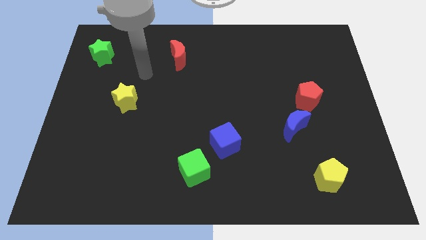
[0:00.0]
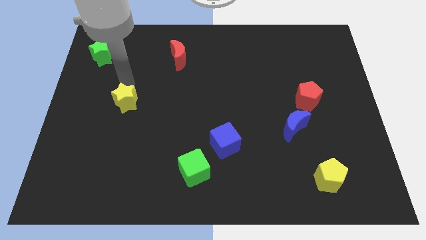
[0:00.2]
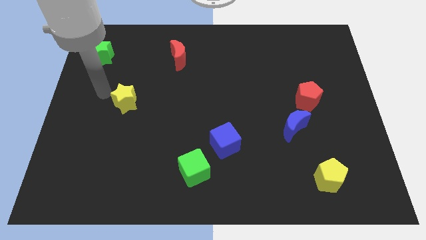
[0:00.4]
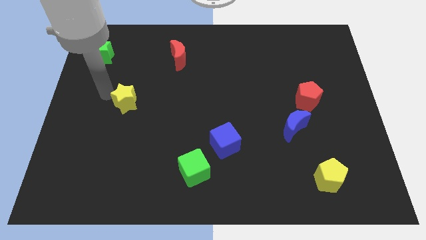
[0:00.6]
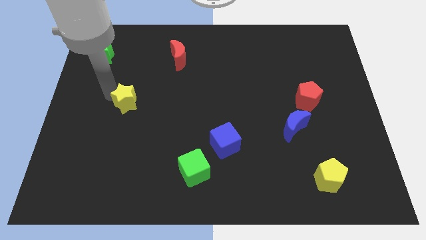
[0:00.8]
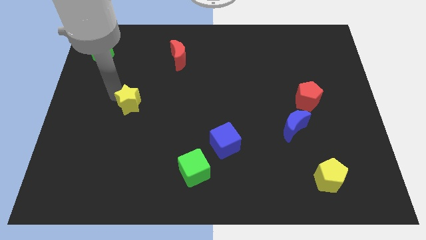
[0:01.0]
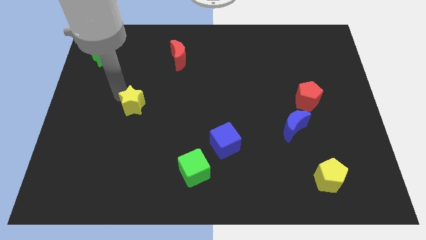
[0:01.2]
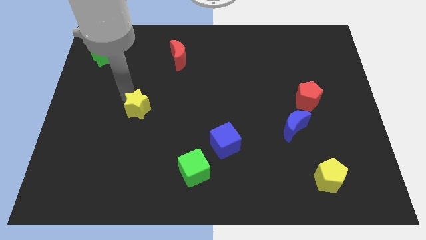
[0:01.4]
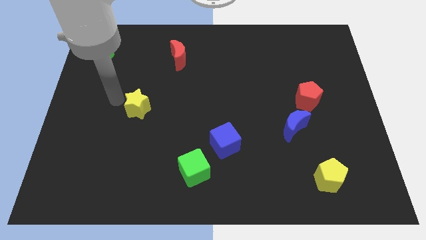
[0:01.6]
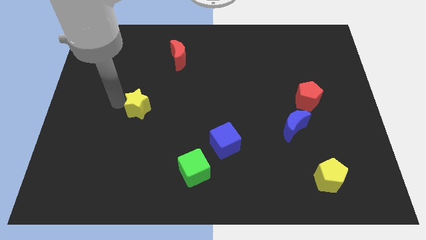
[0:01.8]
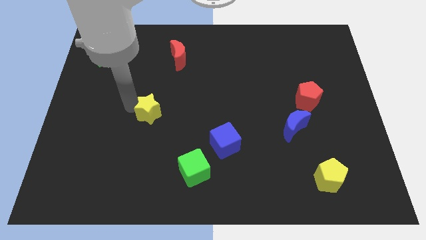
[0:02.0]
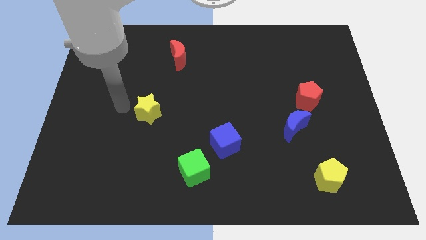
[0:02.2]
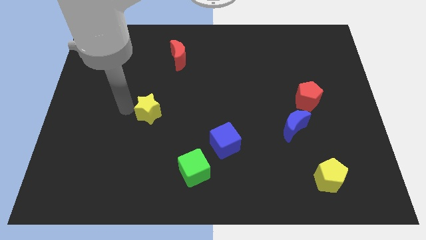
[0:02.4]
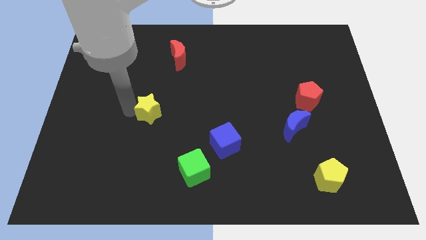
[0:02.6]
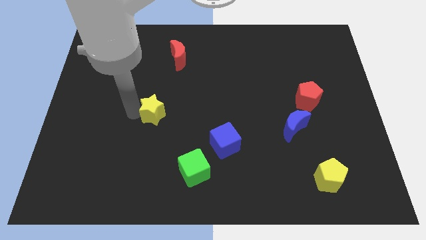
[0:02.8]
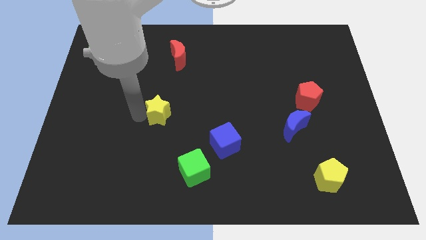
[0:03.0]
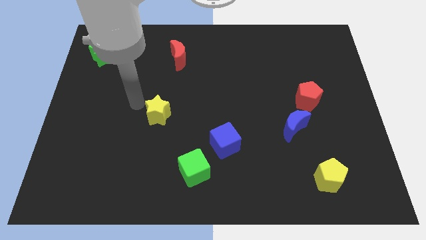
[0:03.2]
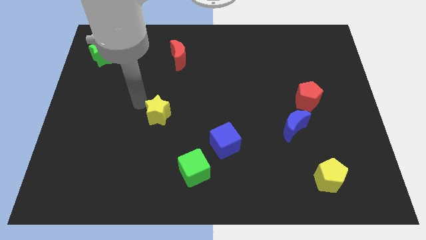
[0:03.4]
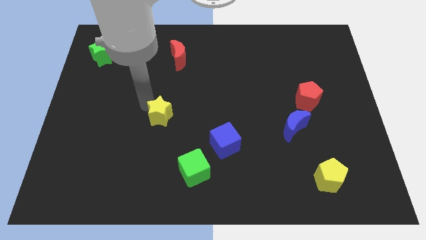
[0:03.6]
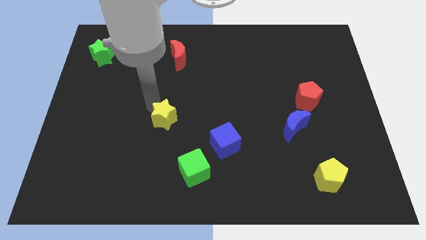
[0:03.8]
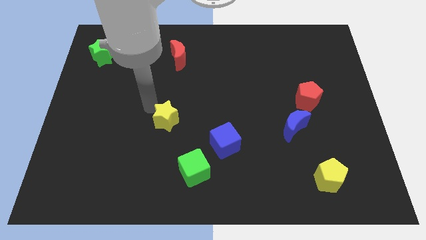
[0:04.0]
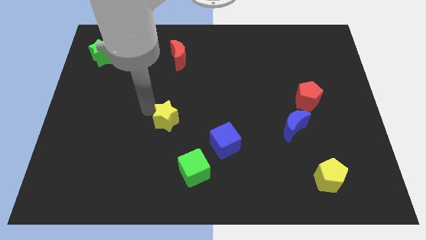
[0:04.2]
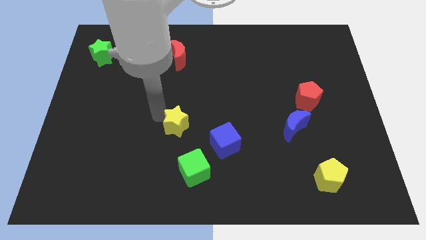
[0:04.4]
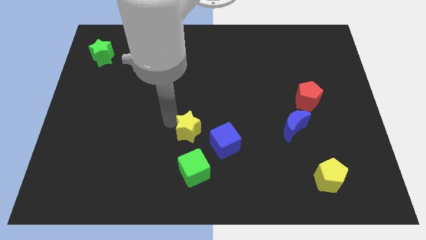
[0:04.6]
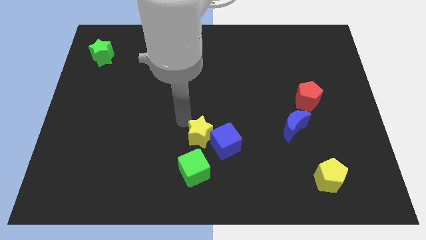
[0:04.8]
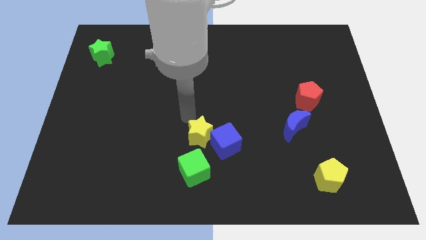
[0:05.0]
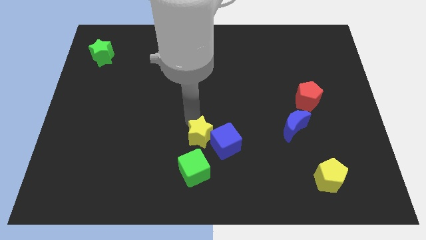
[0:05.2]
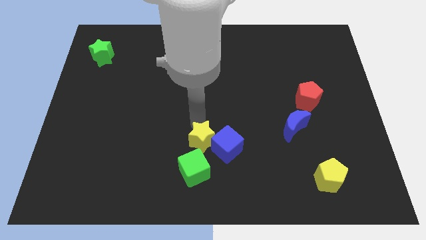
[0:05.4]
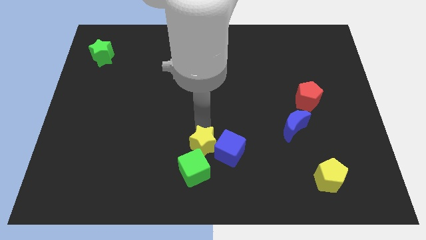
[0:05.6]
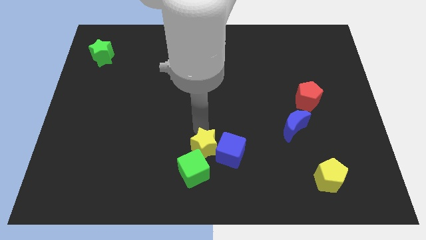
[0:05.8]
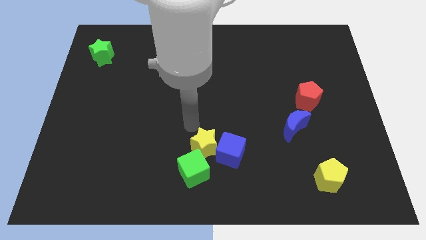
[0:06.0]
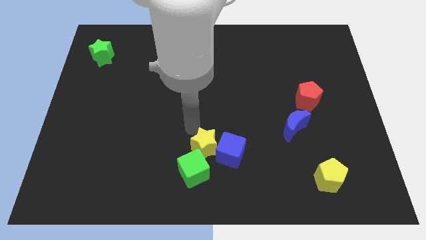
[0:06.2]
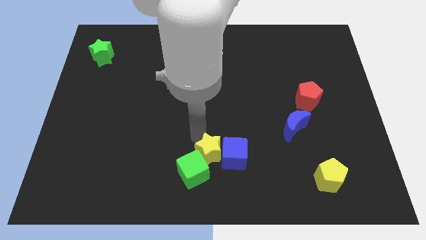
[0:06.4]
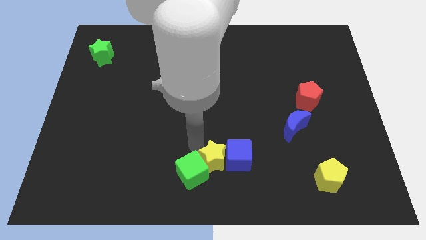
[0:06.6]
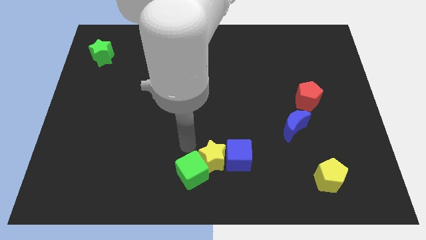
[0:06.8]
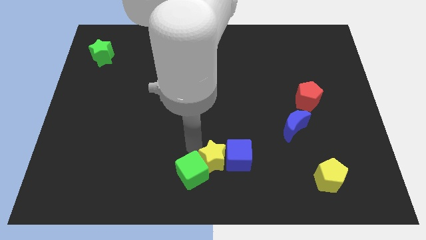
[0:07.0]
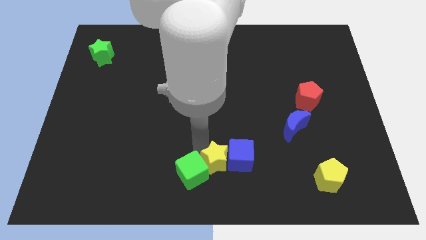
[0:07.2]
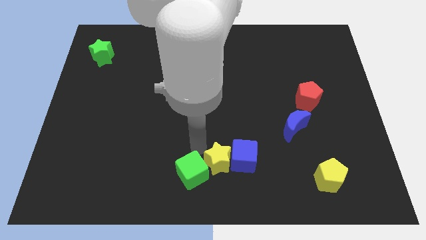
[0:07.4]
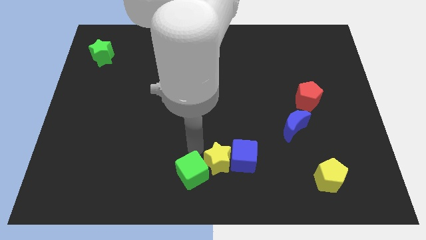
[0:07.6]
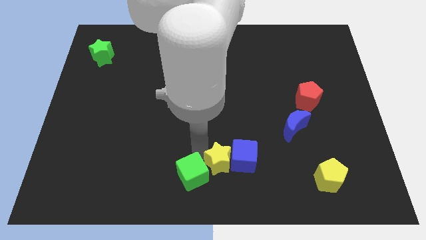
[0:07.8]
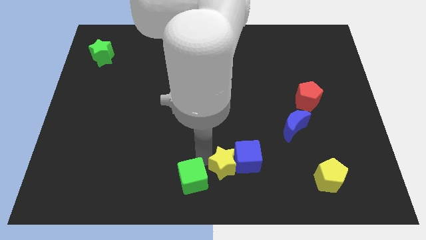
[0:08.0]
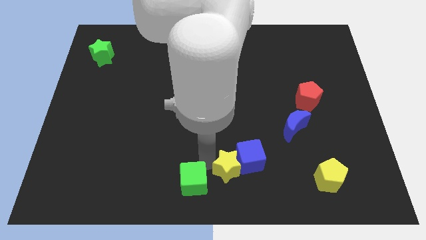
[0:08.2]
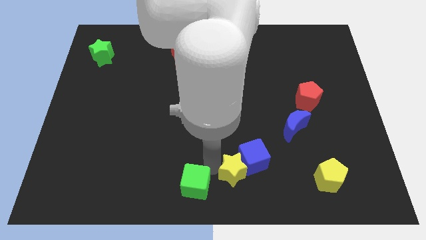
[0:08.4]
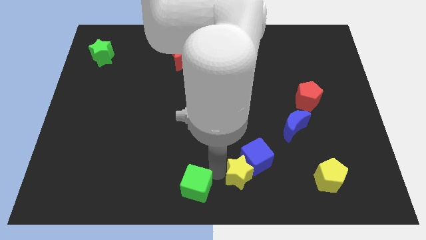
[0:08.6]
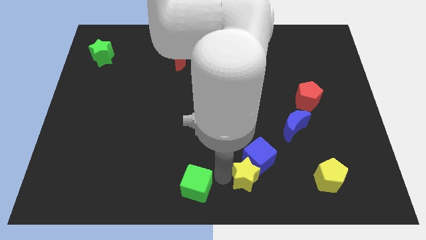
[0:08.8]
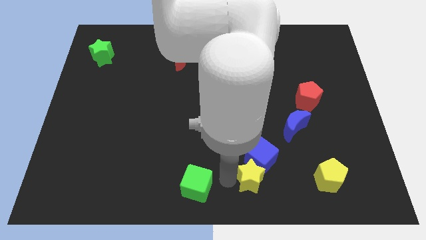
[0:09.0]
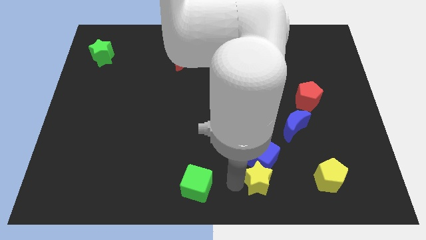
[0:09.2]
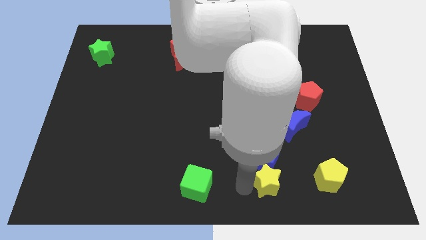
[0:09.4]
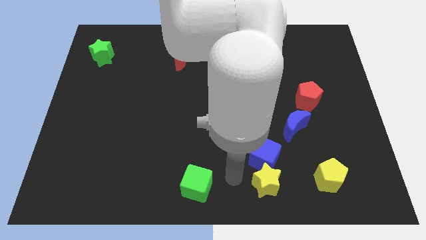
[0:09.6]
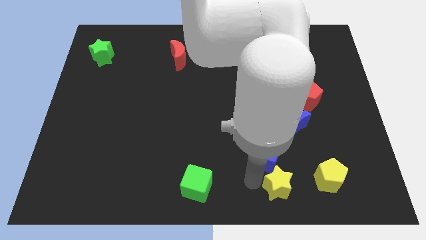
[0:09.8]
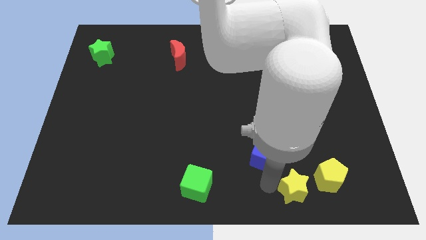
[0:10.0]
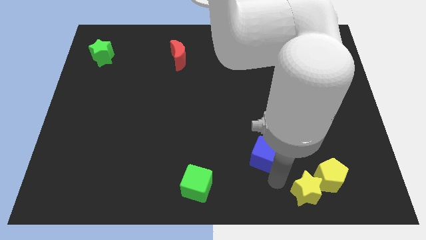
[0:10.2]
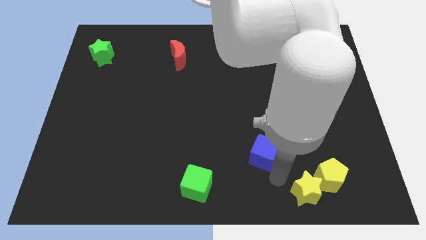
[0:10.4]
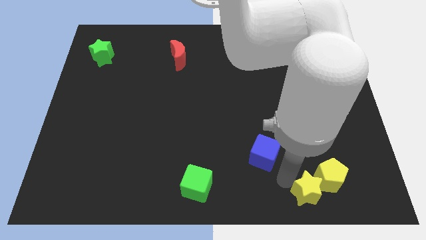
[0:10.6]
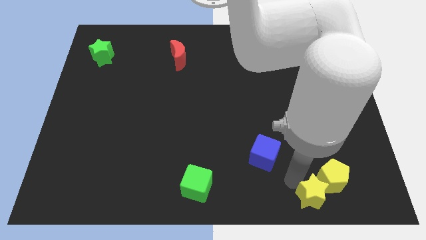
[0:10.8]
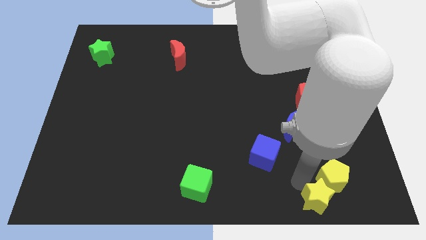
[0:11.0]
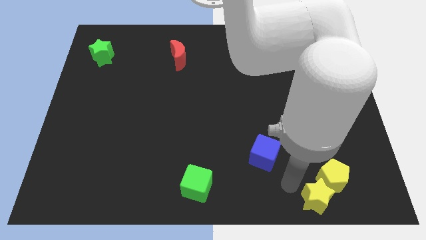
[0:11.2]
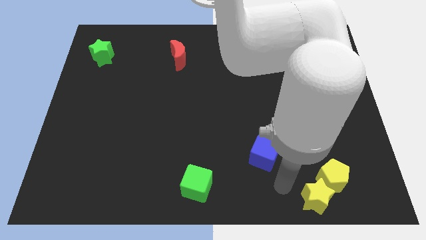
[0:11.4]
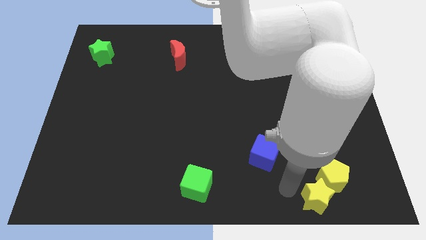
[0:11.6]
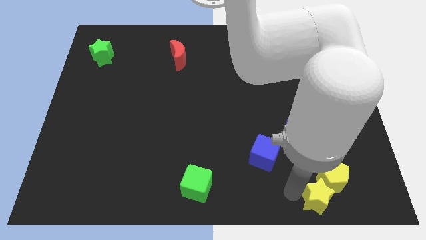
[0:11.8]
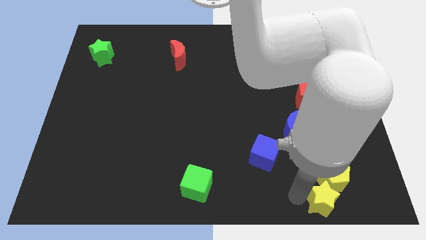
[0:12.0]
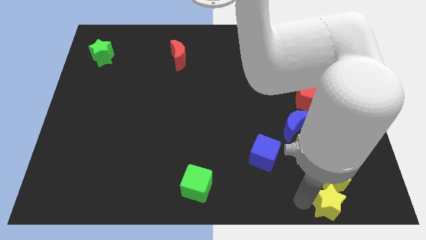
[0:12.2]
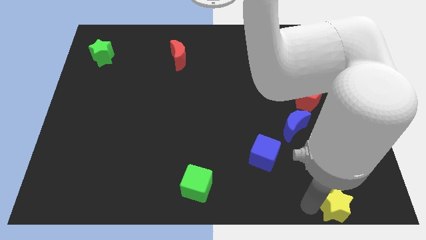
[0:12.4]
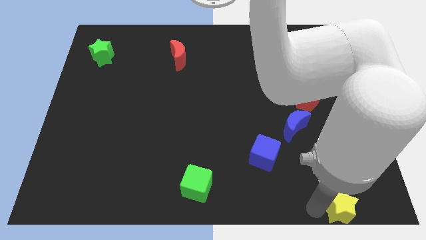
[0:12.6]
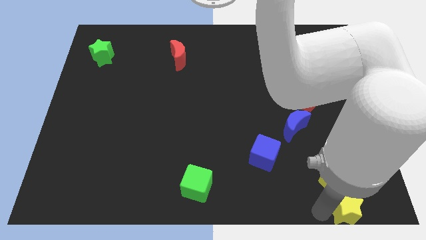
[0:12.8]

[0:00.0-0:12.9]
push the yellow star to the bottom right
